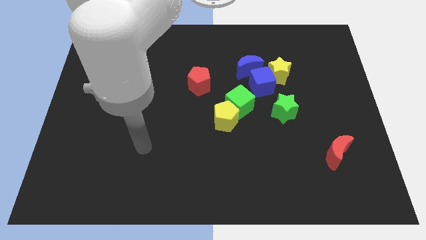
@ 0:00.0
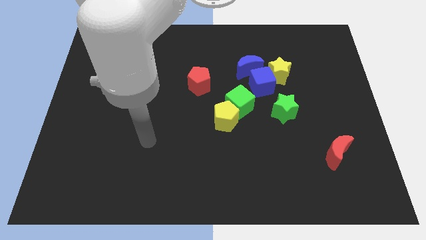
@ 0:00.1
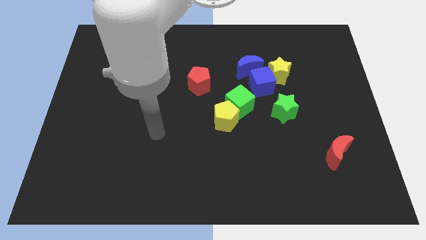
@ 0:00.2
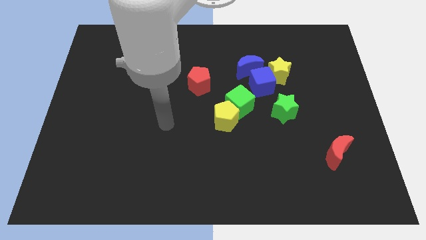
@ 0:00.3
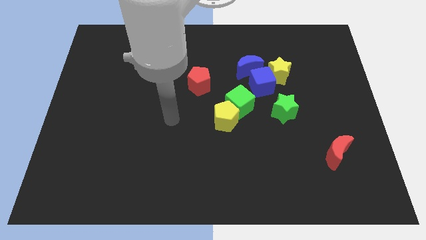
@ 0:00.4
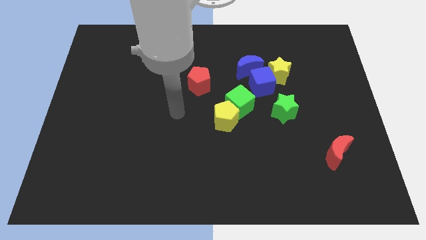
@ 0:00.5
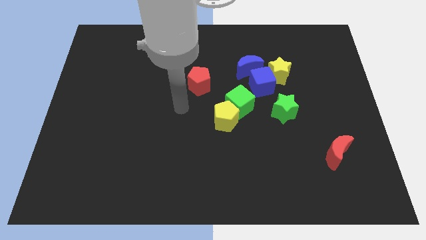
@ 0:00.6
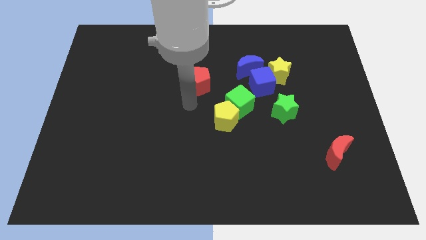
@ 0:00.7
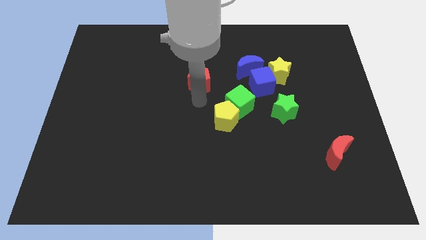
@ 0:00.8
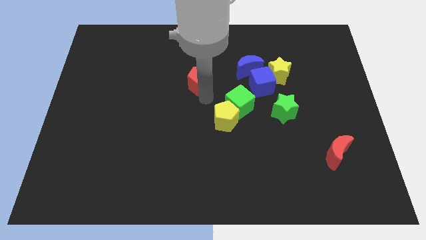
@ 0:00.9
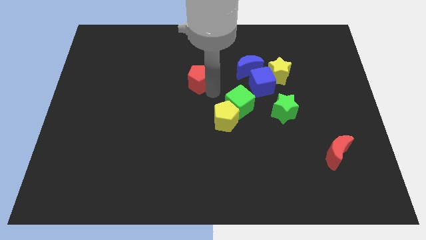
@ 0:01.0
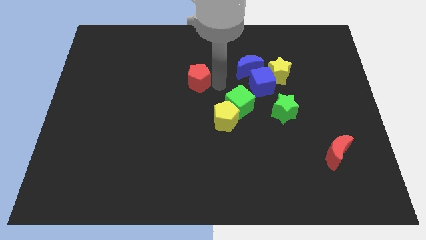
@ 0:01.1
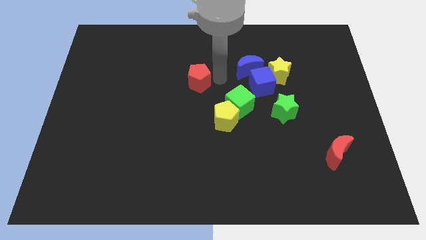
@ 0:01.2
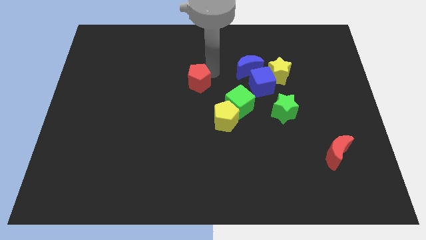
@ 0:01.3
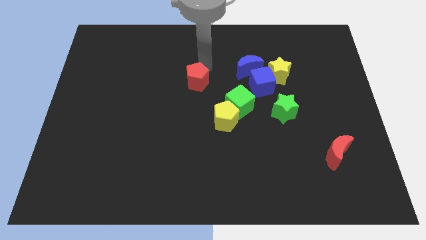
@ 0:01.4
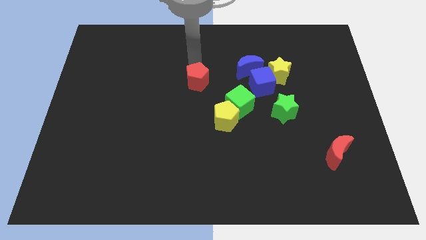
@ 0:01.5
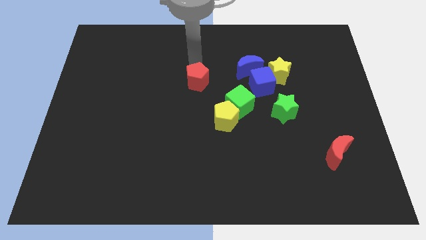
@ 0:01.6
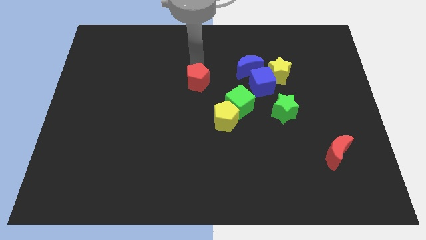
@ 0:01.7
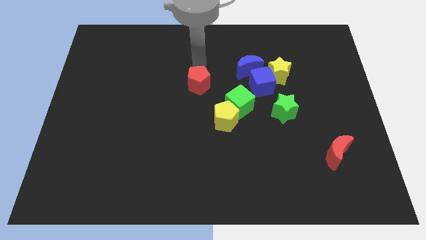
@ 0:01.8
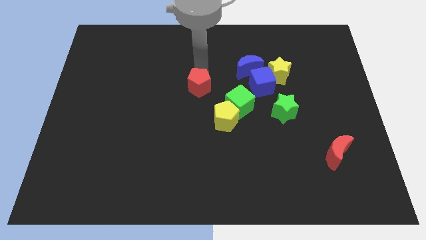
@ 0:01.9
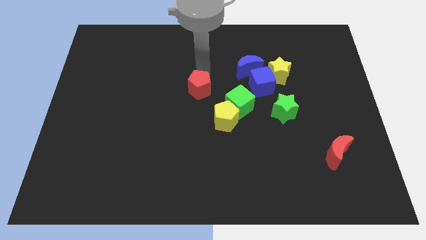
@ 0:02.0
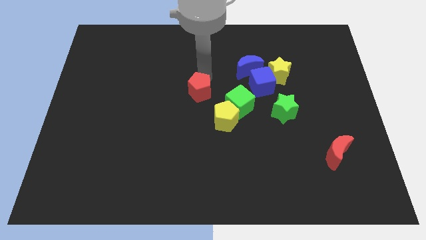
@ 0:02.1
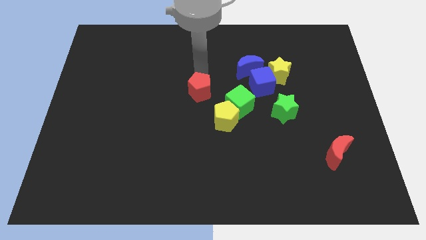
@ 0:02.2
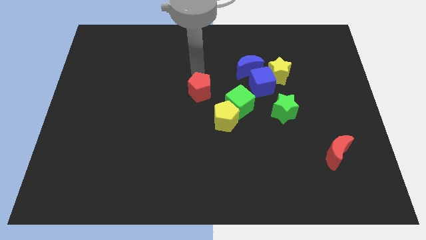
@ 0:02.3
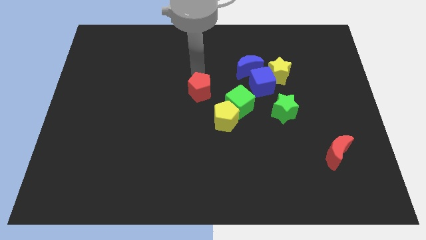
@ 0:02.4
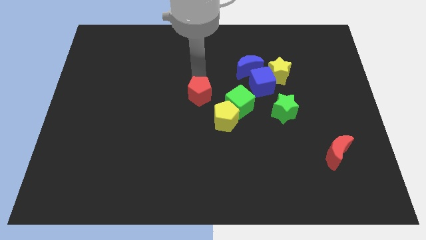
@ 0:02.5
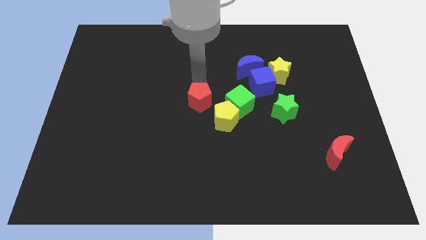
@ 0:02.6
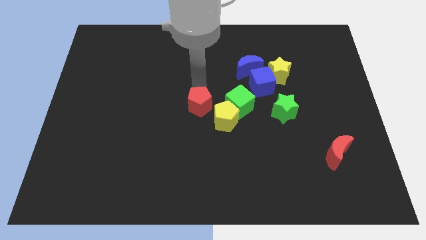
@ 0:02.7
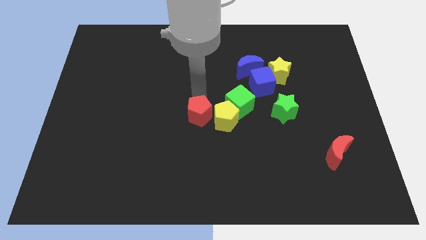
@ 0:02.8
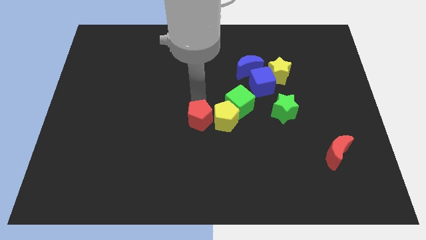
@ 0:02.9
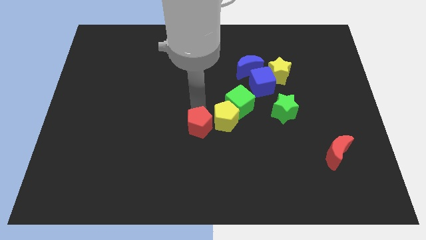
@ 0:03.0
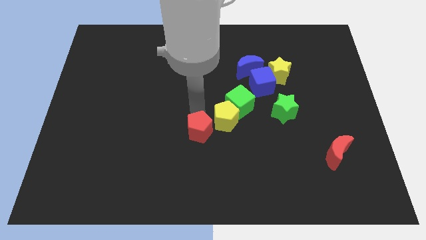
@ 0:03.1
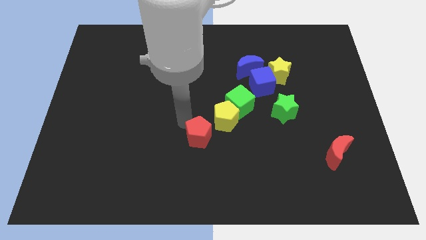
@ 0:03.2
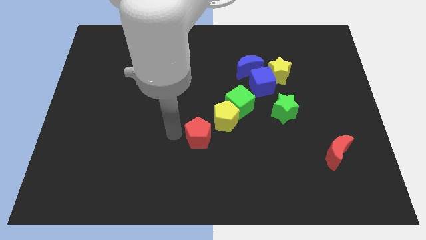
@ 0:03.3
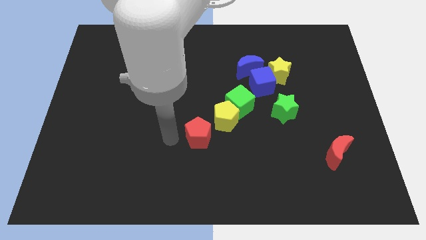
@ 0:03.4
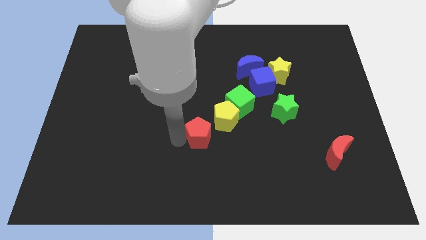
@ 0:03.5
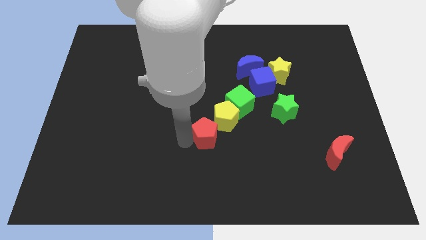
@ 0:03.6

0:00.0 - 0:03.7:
slide the red pentagon somewhat down and then right

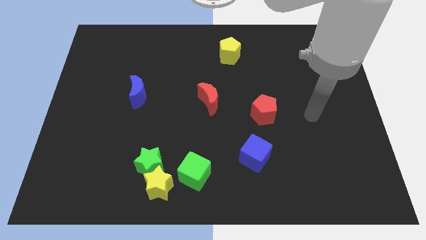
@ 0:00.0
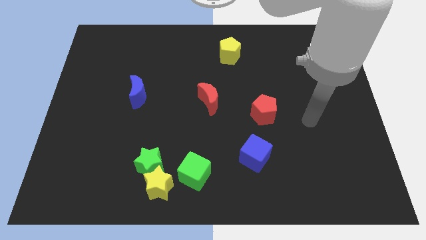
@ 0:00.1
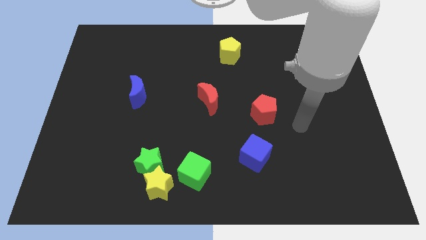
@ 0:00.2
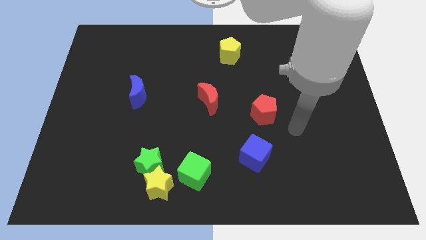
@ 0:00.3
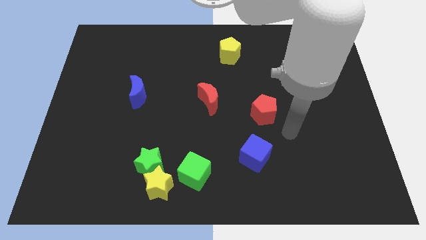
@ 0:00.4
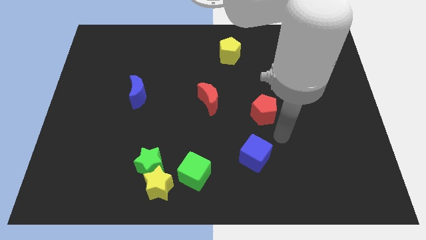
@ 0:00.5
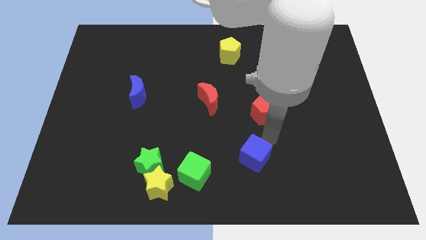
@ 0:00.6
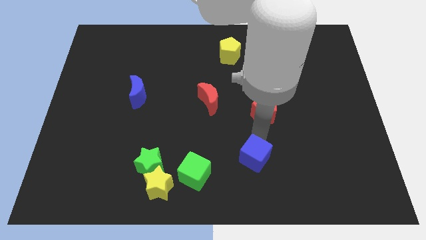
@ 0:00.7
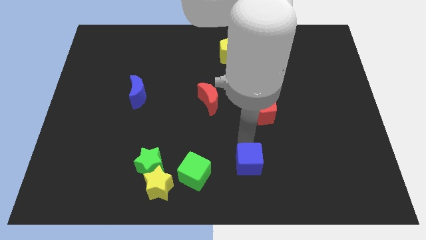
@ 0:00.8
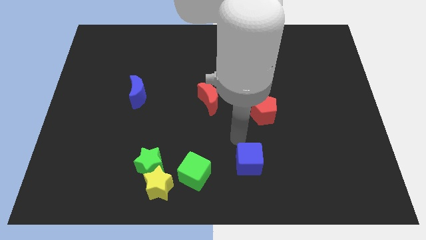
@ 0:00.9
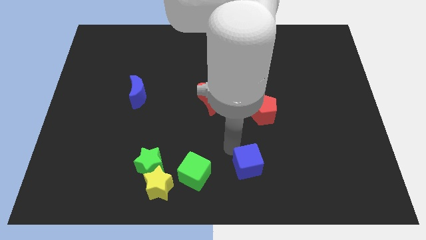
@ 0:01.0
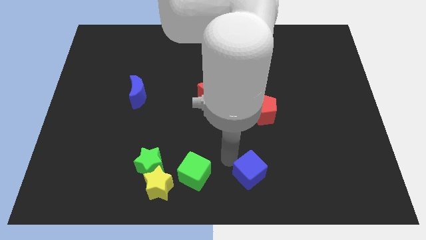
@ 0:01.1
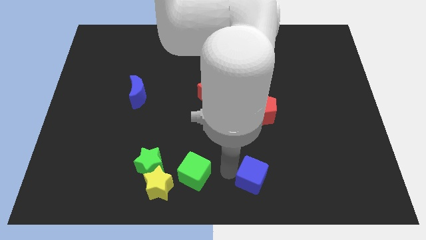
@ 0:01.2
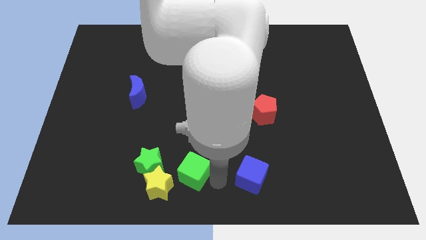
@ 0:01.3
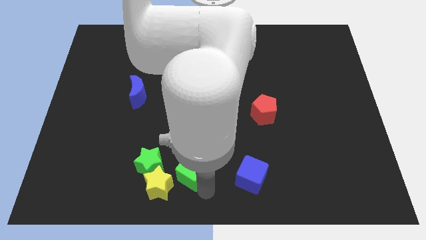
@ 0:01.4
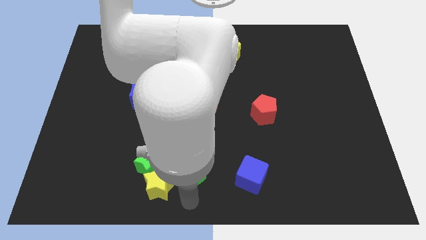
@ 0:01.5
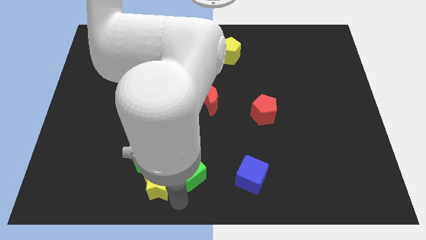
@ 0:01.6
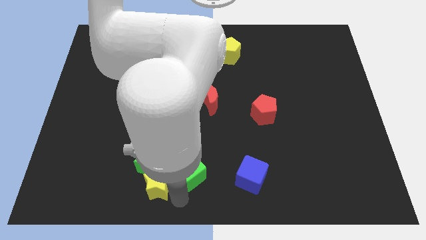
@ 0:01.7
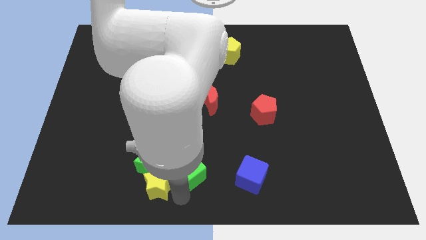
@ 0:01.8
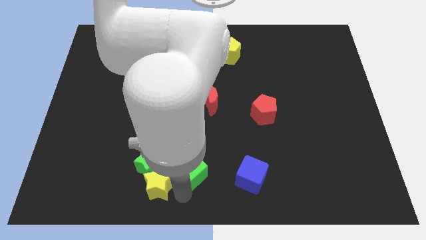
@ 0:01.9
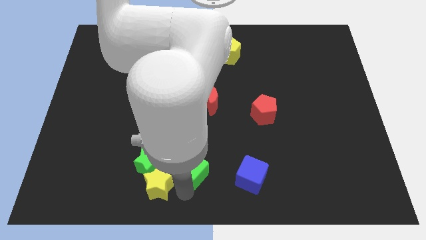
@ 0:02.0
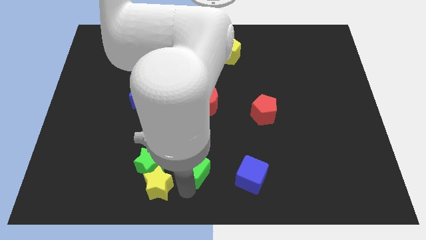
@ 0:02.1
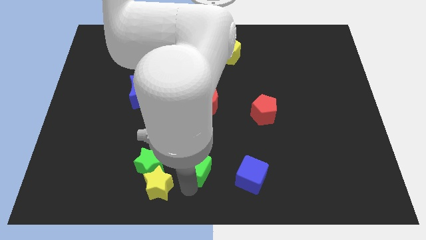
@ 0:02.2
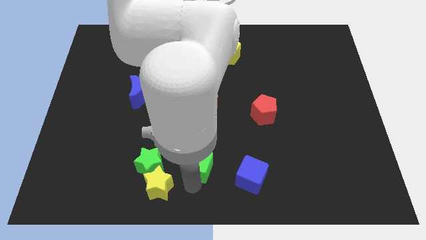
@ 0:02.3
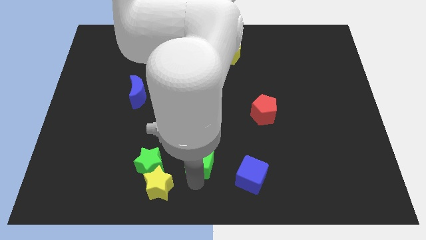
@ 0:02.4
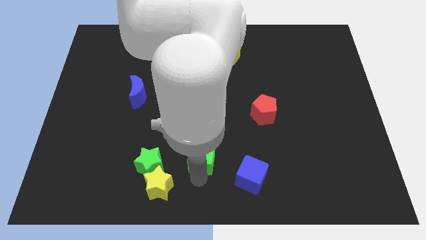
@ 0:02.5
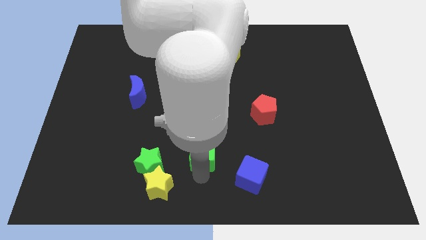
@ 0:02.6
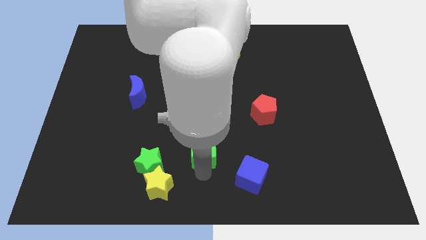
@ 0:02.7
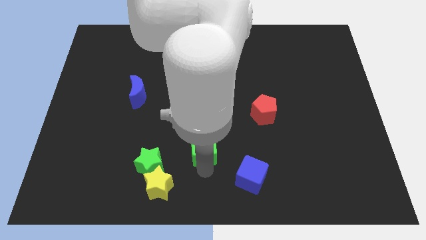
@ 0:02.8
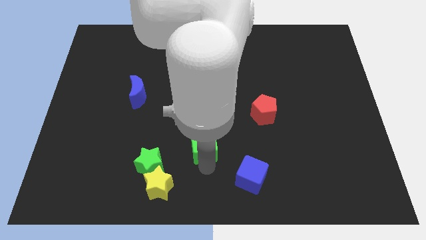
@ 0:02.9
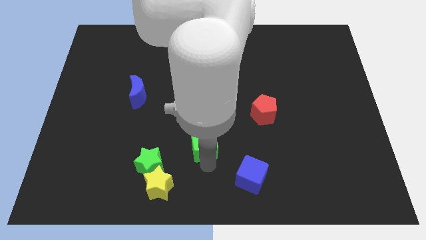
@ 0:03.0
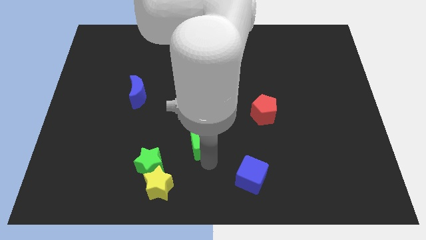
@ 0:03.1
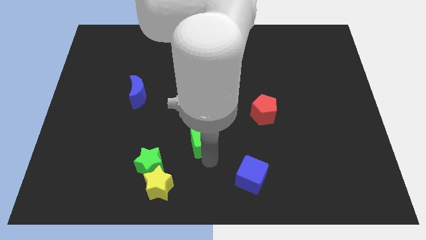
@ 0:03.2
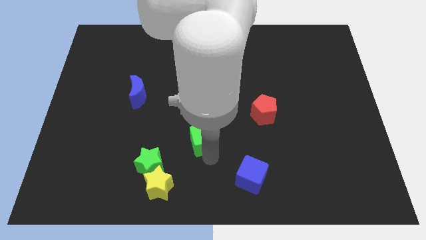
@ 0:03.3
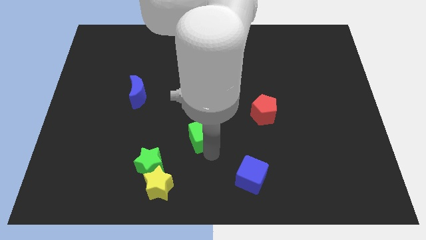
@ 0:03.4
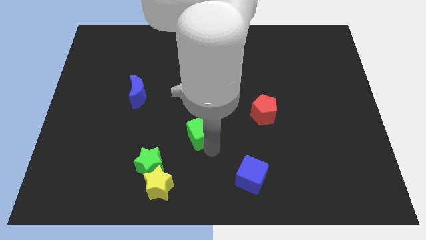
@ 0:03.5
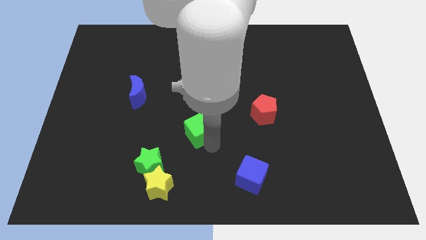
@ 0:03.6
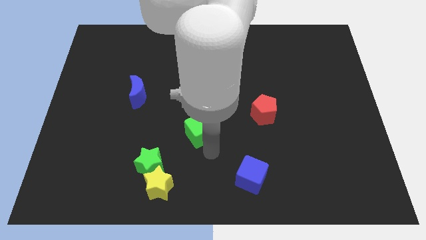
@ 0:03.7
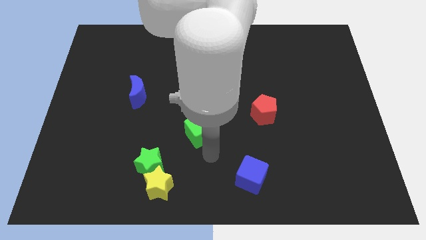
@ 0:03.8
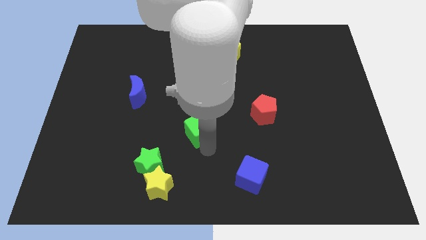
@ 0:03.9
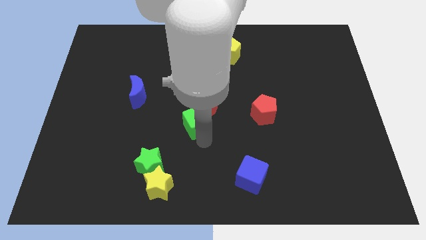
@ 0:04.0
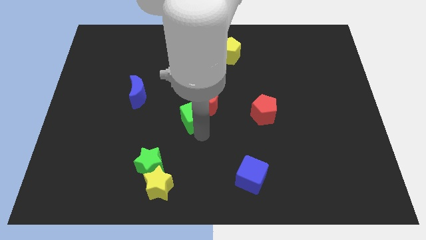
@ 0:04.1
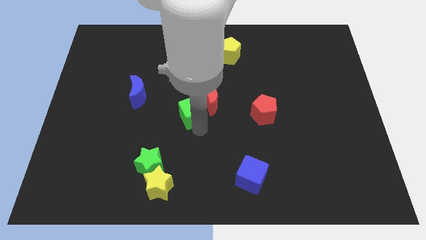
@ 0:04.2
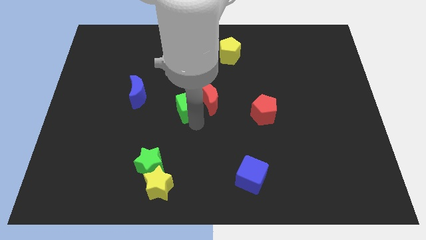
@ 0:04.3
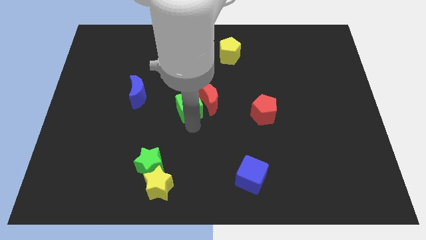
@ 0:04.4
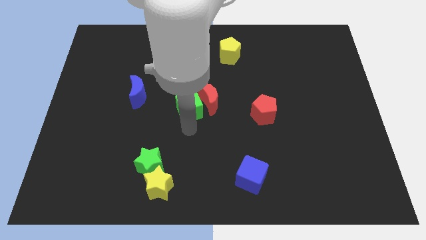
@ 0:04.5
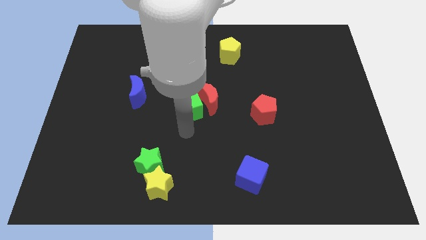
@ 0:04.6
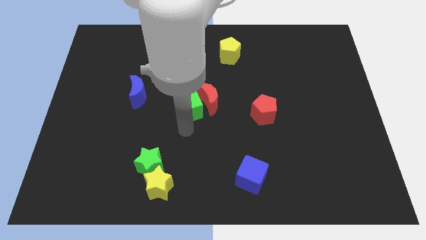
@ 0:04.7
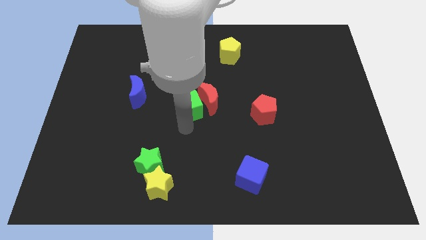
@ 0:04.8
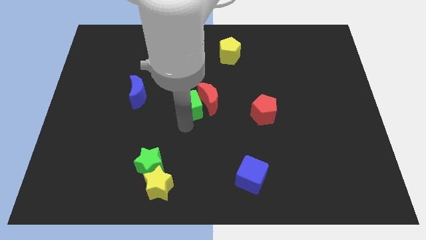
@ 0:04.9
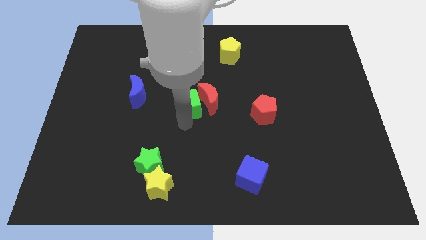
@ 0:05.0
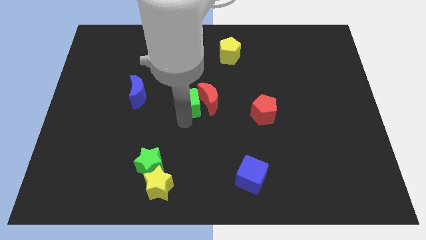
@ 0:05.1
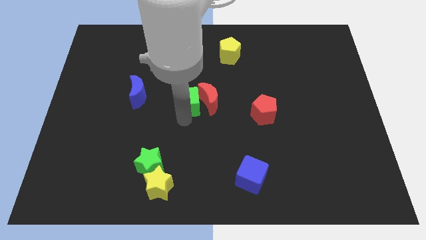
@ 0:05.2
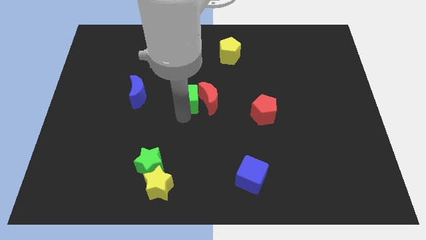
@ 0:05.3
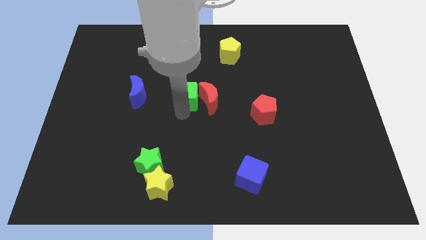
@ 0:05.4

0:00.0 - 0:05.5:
move the green cube upwards
